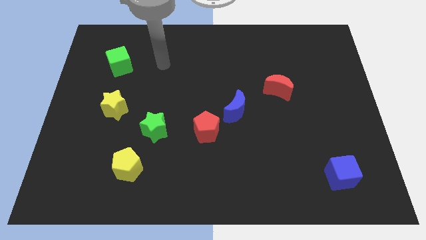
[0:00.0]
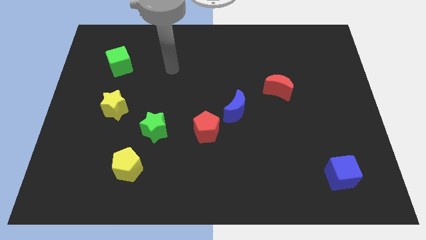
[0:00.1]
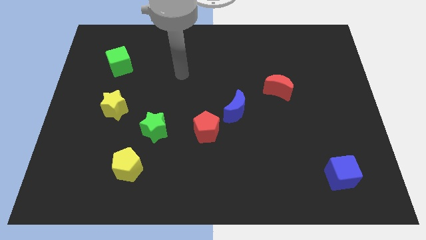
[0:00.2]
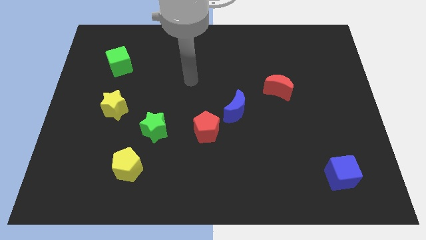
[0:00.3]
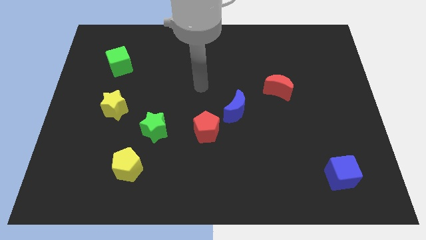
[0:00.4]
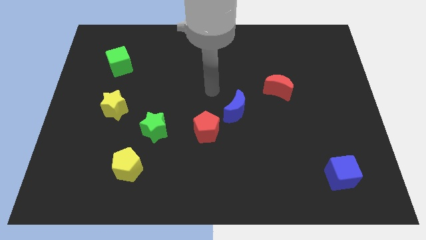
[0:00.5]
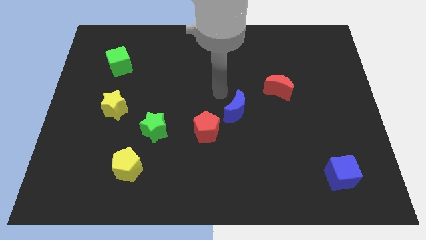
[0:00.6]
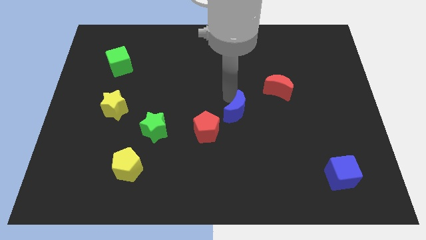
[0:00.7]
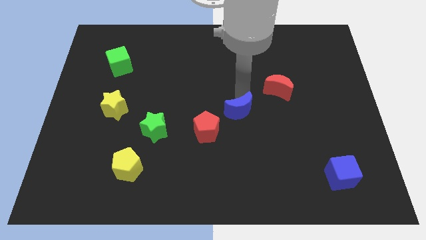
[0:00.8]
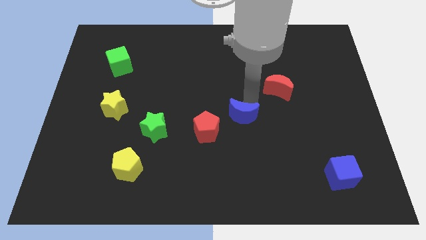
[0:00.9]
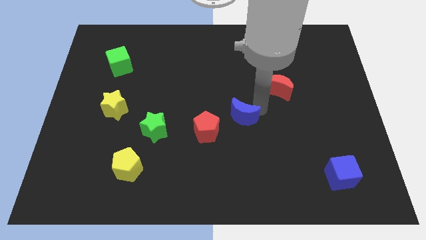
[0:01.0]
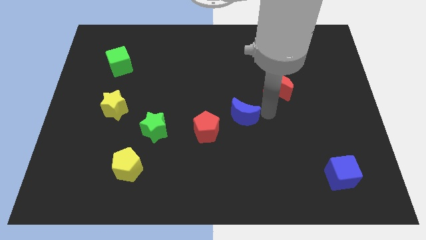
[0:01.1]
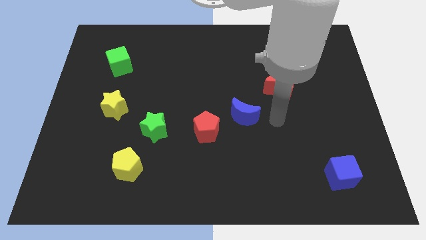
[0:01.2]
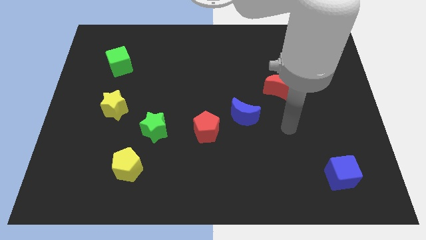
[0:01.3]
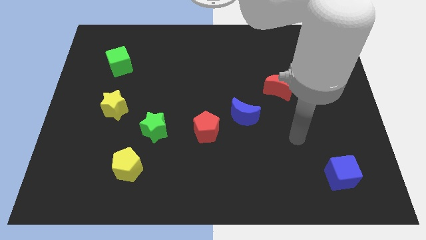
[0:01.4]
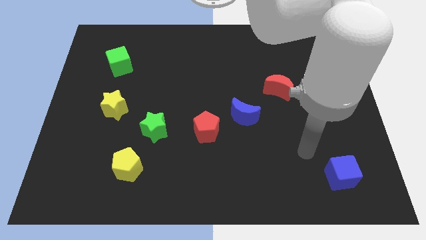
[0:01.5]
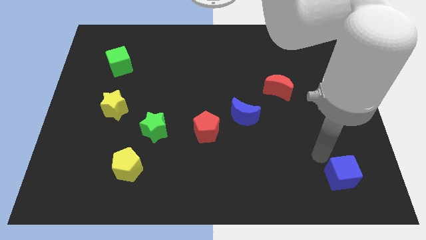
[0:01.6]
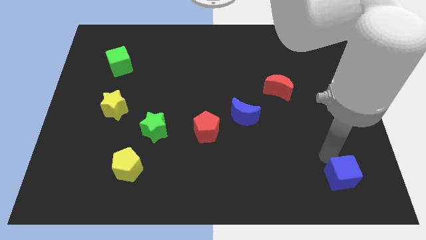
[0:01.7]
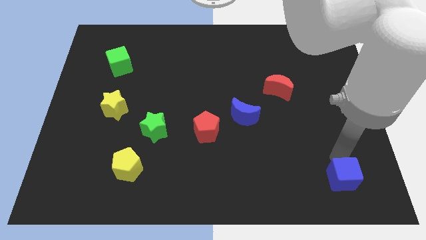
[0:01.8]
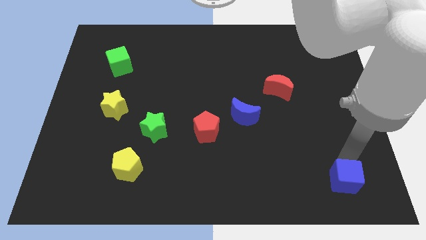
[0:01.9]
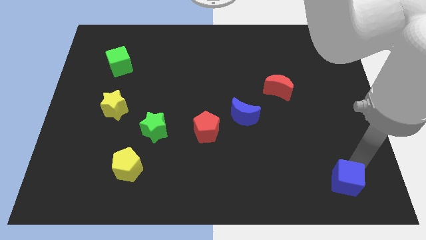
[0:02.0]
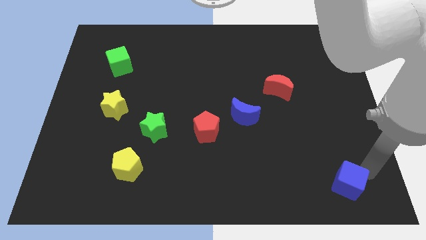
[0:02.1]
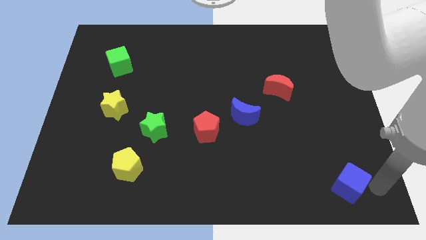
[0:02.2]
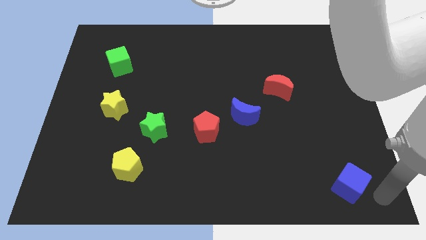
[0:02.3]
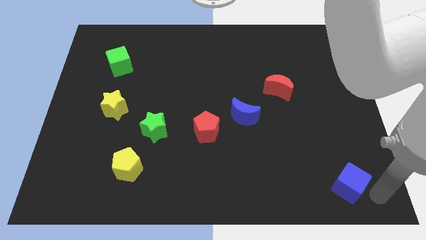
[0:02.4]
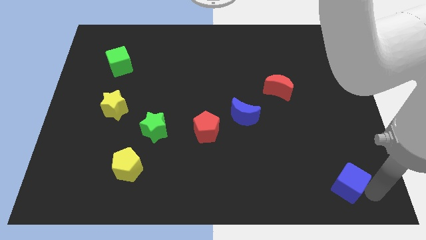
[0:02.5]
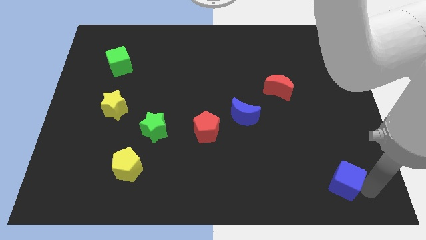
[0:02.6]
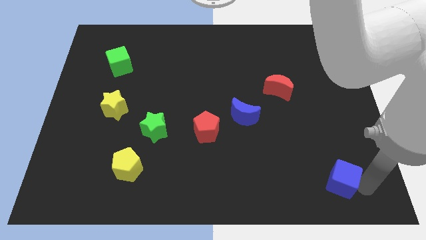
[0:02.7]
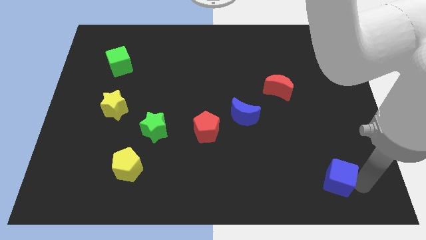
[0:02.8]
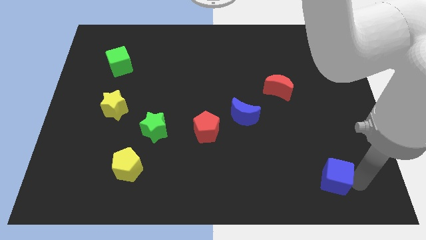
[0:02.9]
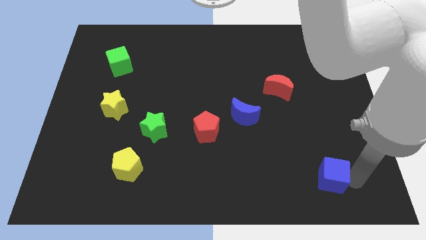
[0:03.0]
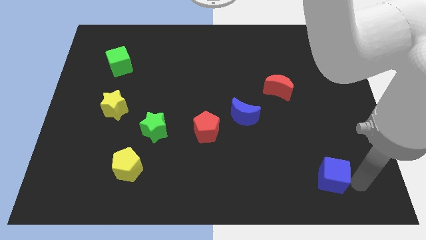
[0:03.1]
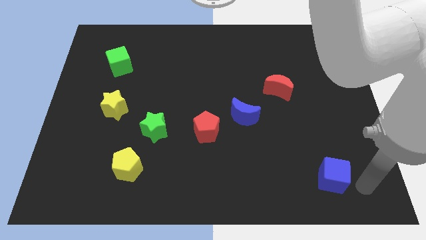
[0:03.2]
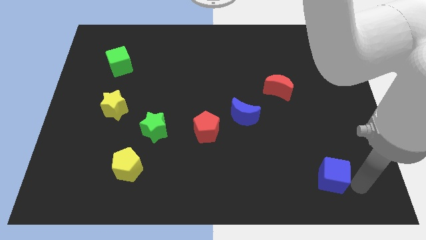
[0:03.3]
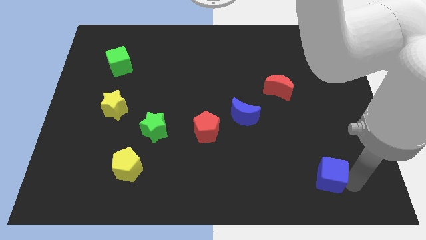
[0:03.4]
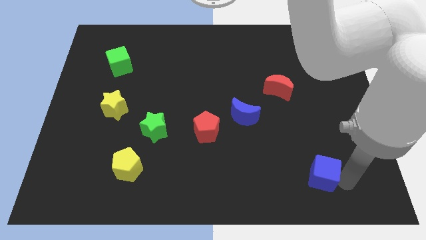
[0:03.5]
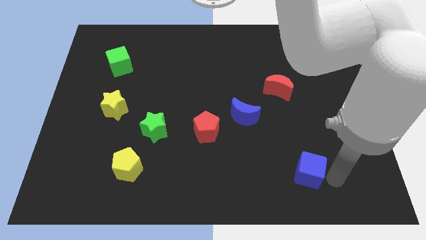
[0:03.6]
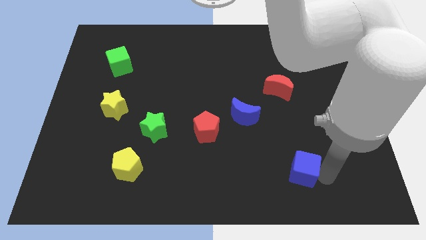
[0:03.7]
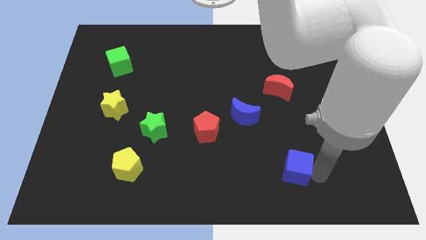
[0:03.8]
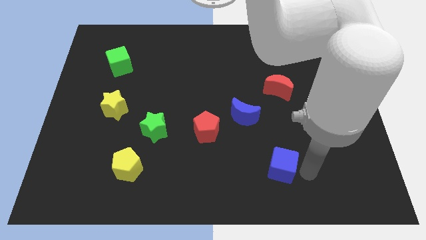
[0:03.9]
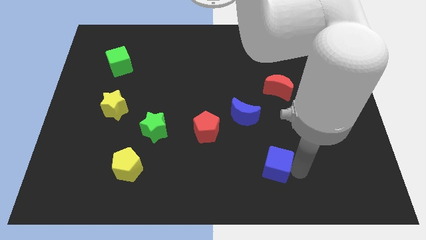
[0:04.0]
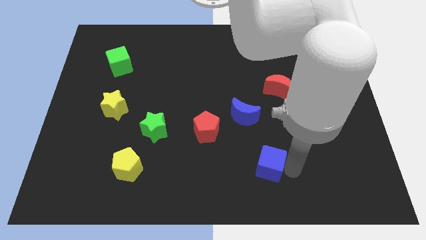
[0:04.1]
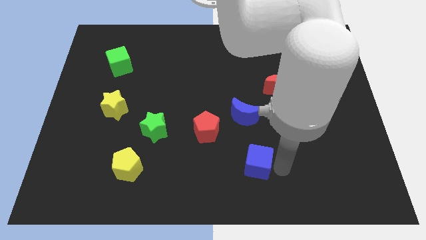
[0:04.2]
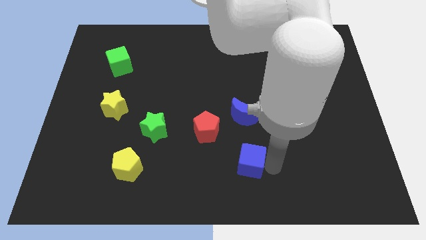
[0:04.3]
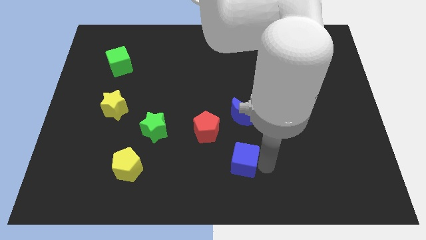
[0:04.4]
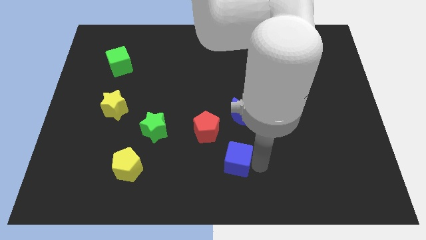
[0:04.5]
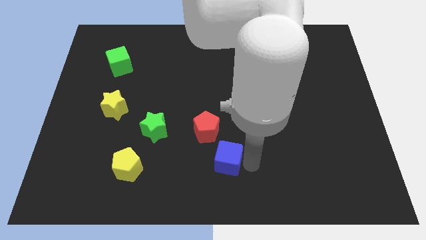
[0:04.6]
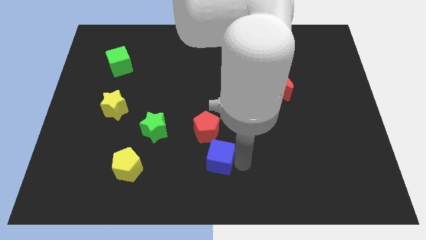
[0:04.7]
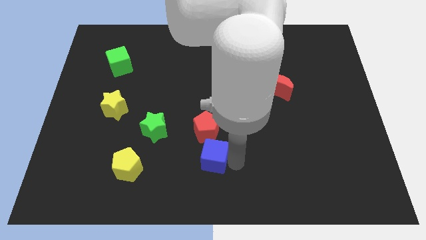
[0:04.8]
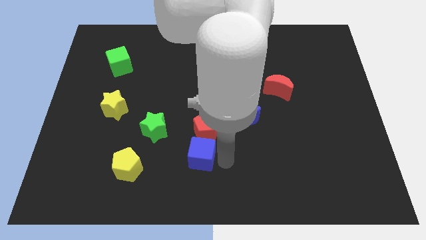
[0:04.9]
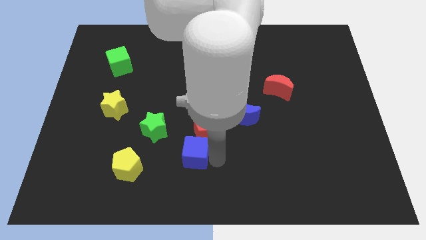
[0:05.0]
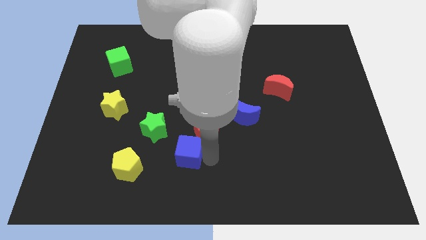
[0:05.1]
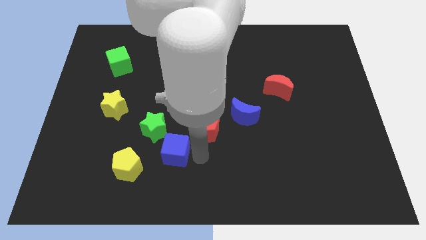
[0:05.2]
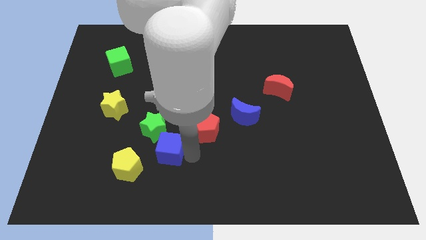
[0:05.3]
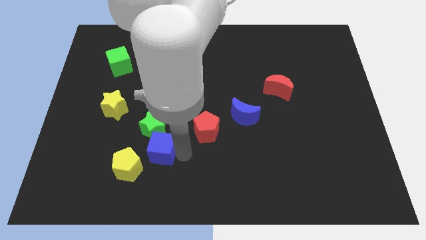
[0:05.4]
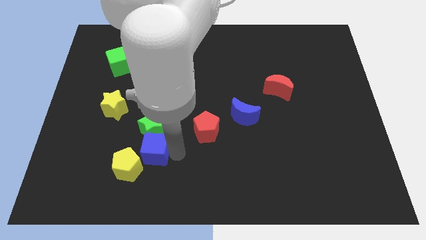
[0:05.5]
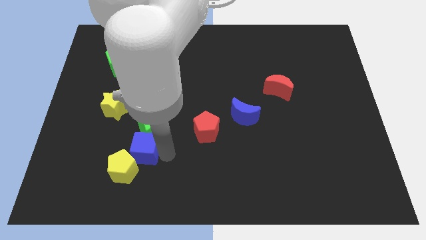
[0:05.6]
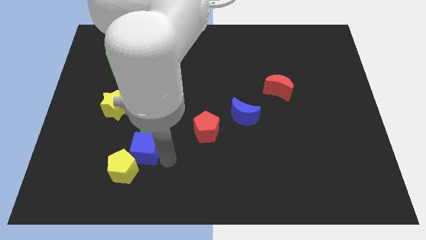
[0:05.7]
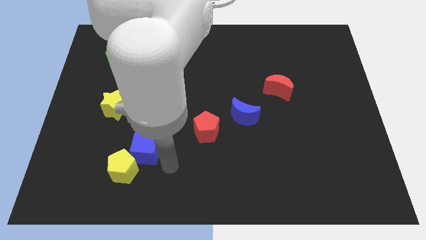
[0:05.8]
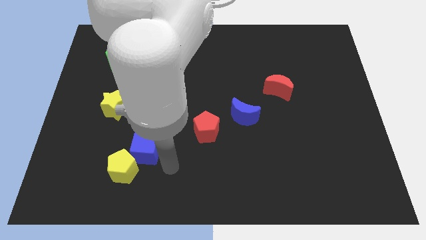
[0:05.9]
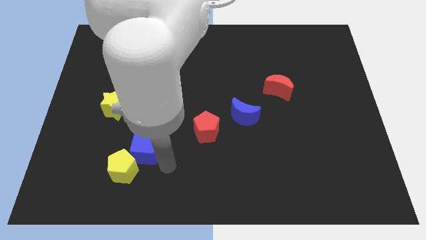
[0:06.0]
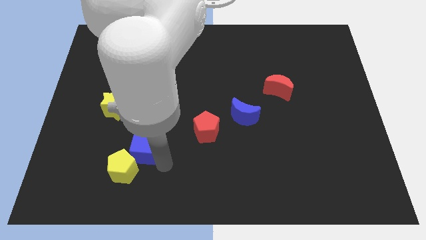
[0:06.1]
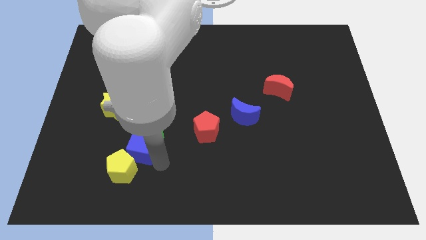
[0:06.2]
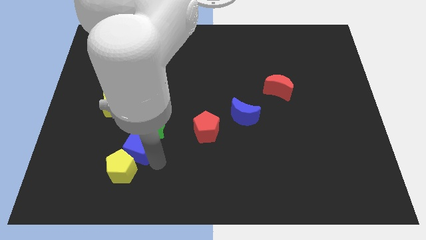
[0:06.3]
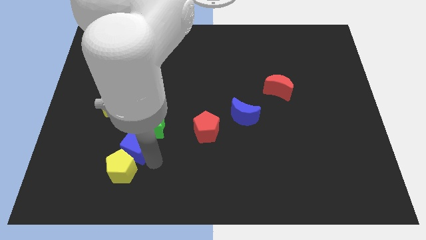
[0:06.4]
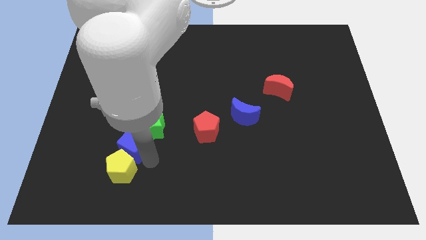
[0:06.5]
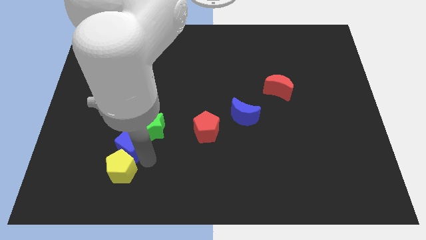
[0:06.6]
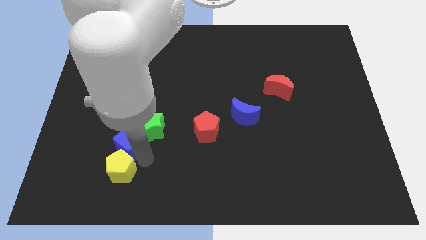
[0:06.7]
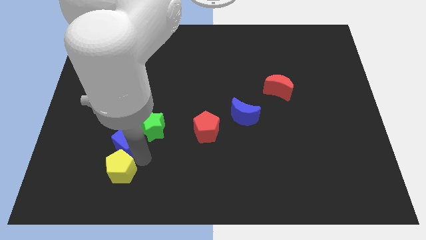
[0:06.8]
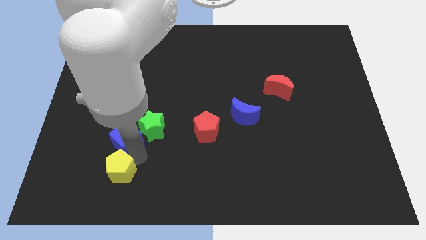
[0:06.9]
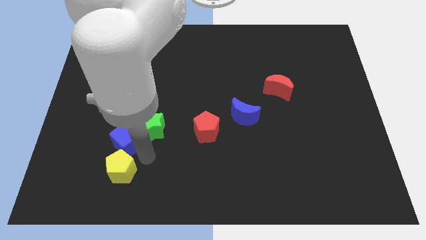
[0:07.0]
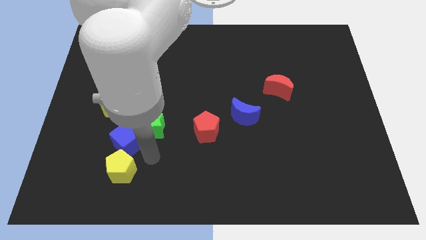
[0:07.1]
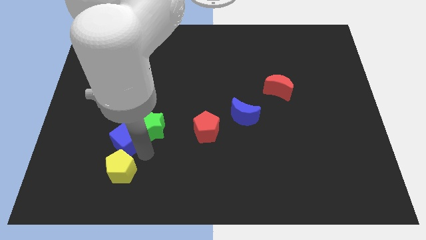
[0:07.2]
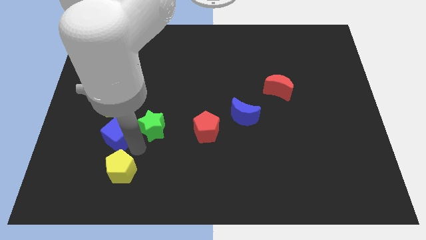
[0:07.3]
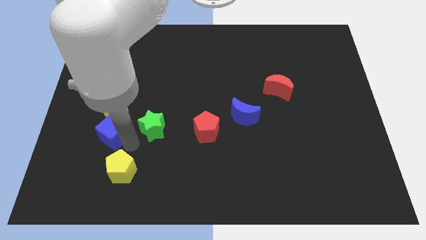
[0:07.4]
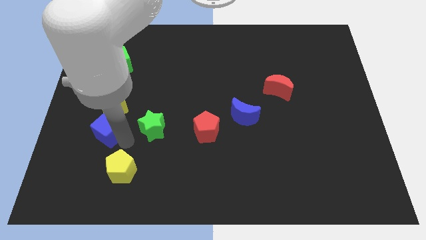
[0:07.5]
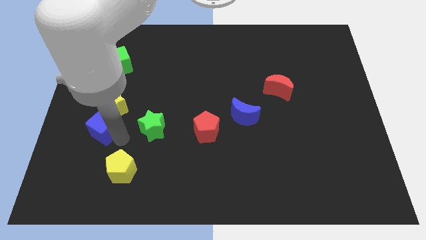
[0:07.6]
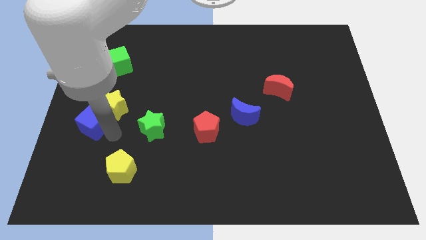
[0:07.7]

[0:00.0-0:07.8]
put the blue cube to the center left
